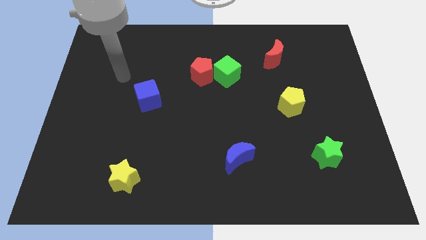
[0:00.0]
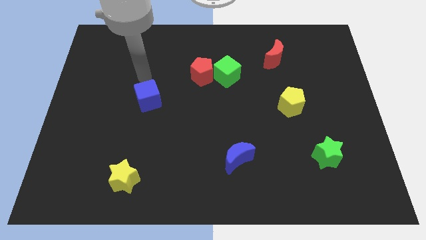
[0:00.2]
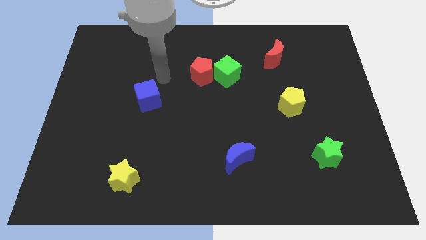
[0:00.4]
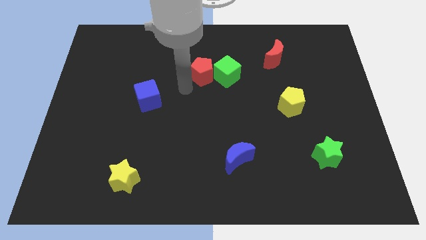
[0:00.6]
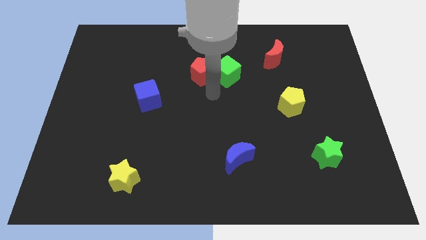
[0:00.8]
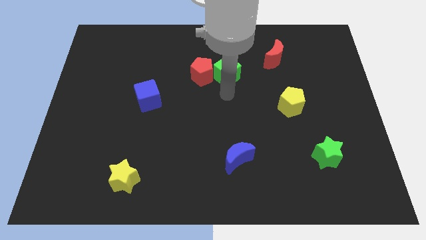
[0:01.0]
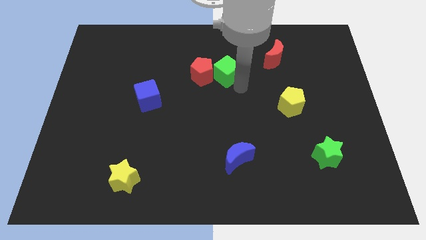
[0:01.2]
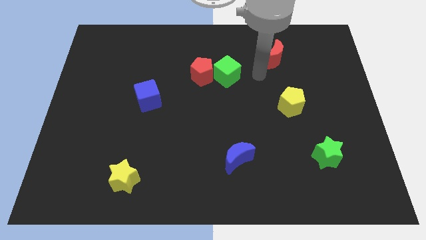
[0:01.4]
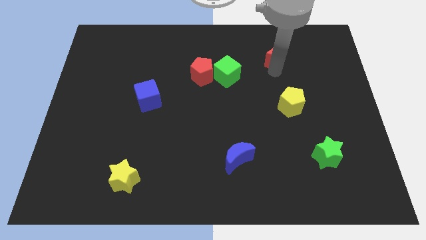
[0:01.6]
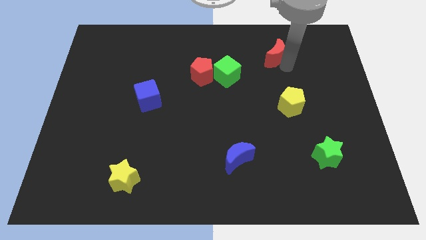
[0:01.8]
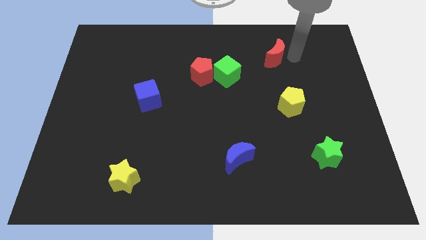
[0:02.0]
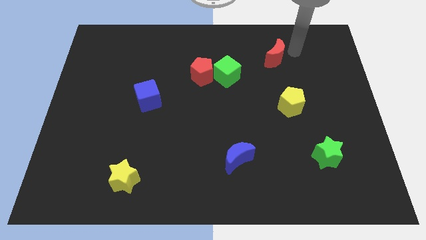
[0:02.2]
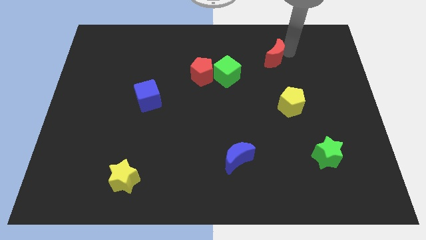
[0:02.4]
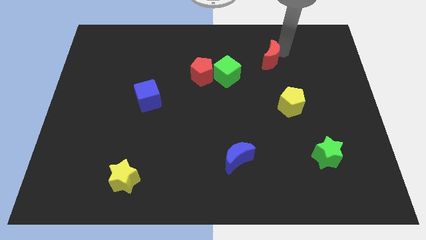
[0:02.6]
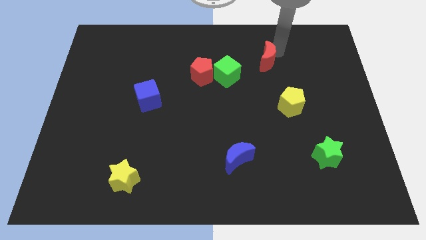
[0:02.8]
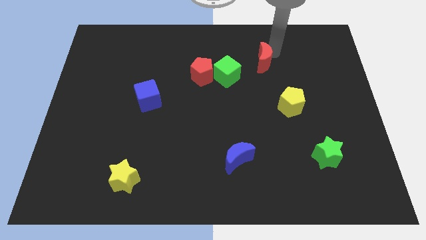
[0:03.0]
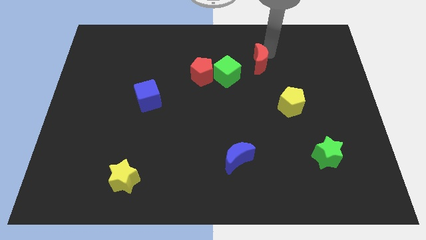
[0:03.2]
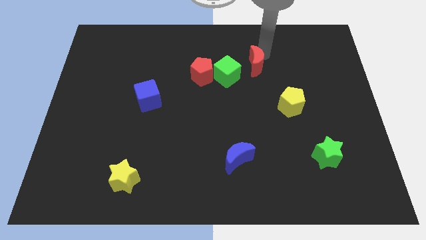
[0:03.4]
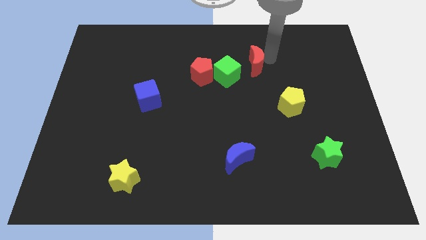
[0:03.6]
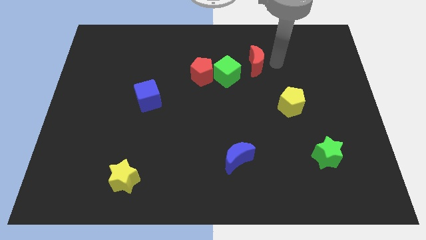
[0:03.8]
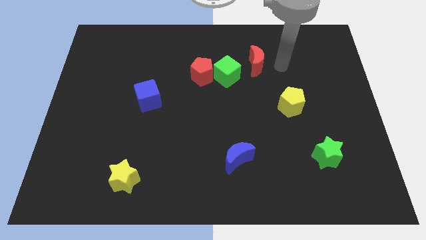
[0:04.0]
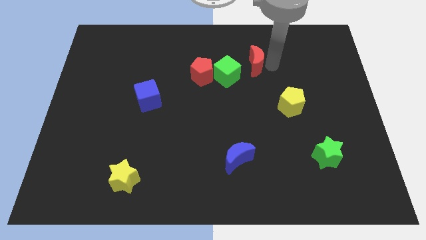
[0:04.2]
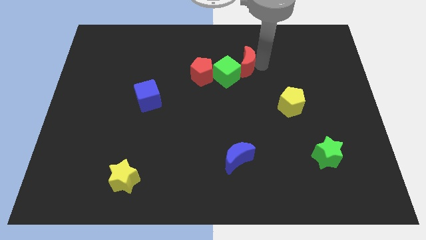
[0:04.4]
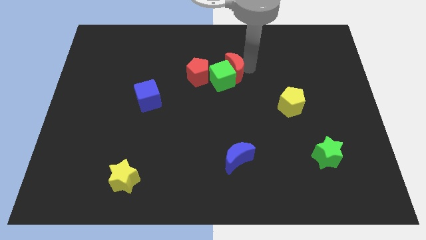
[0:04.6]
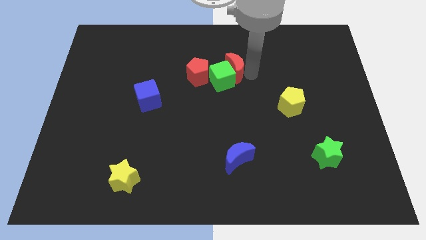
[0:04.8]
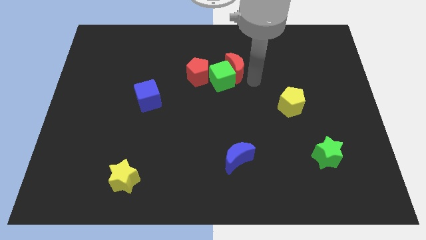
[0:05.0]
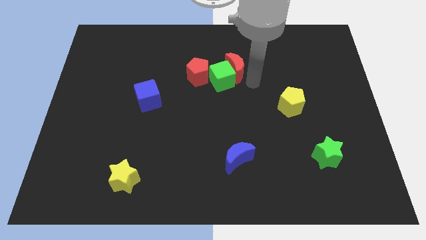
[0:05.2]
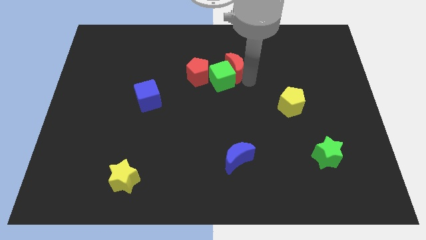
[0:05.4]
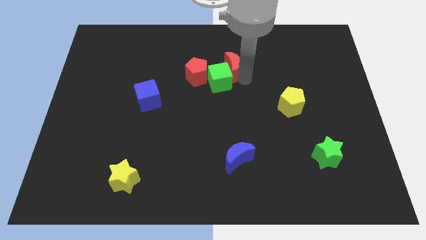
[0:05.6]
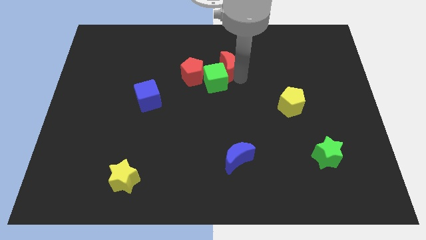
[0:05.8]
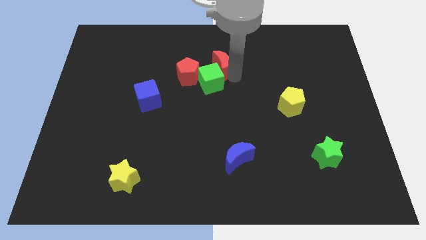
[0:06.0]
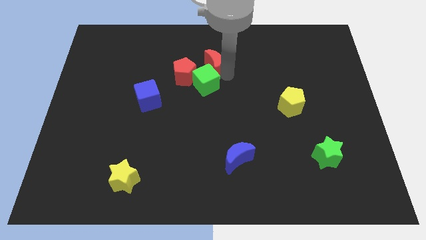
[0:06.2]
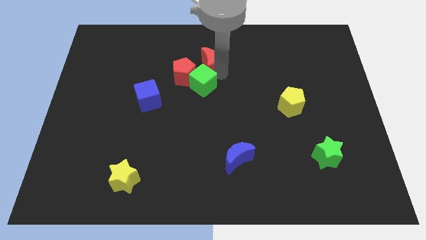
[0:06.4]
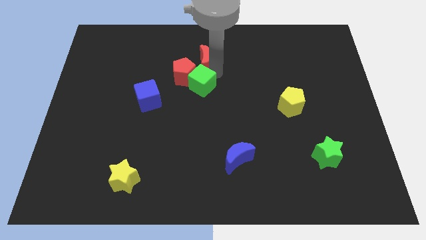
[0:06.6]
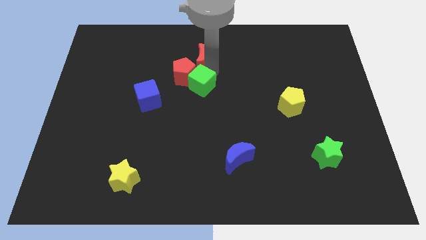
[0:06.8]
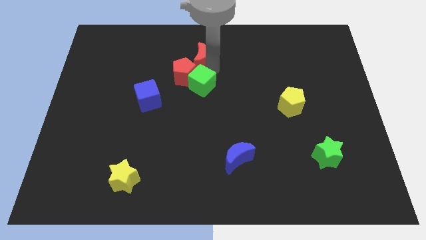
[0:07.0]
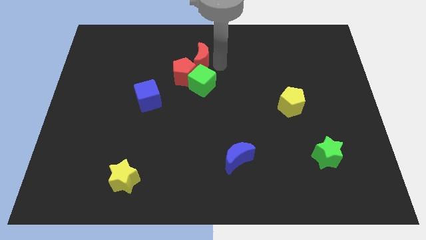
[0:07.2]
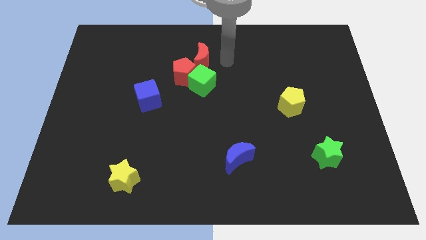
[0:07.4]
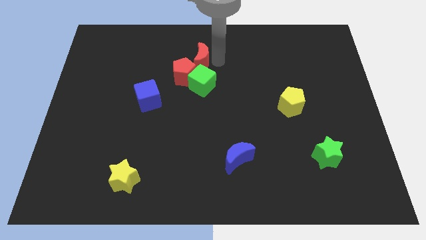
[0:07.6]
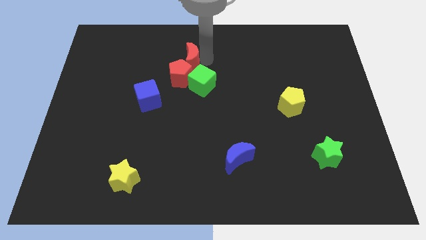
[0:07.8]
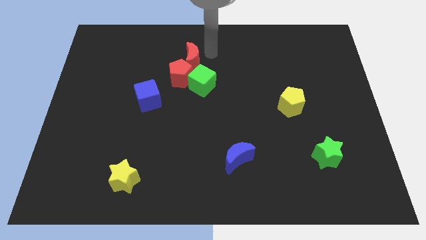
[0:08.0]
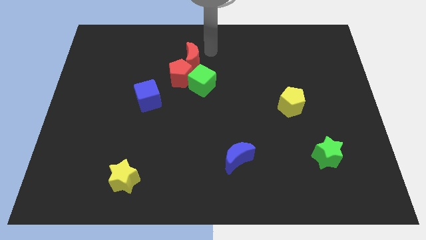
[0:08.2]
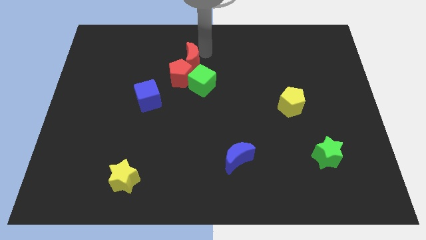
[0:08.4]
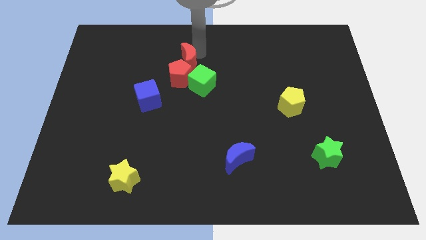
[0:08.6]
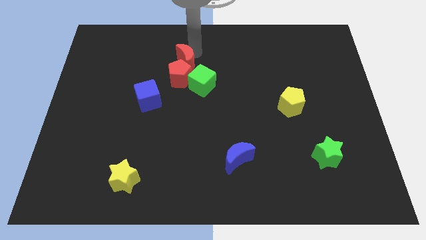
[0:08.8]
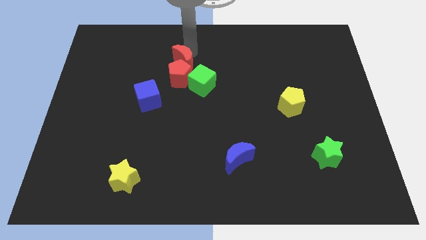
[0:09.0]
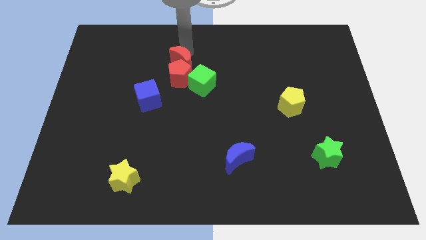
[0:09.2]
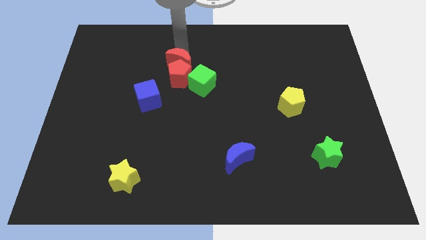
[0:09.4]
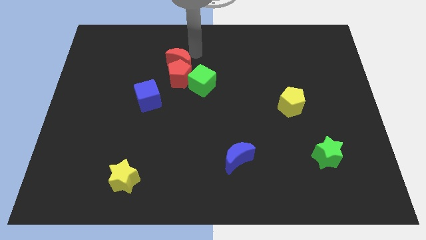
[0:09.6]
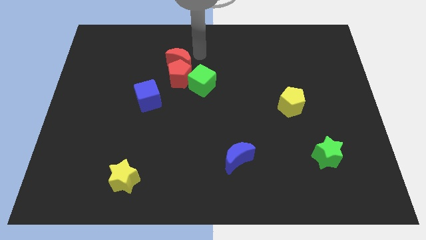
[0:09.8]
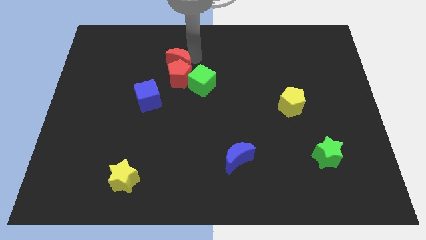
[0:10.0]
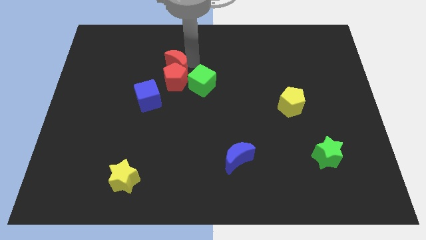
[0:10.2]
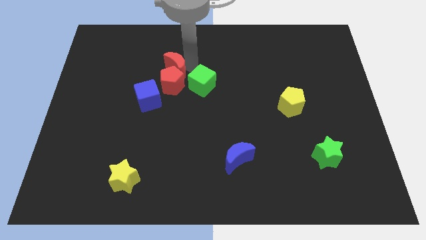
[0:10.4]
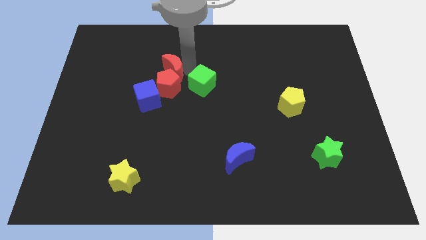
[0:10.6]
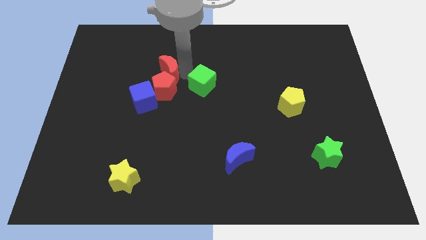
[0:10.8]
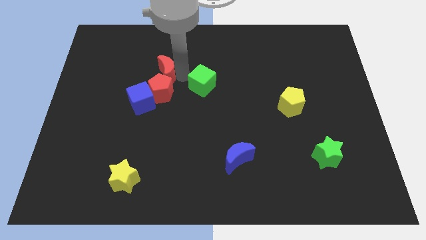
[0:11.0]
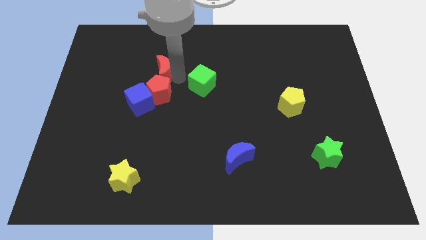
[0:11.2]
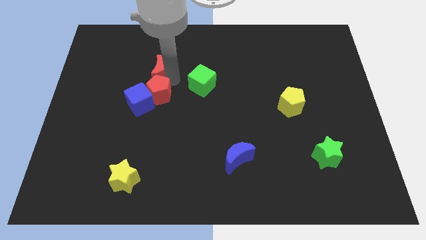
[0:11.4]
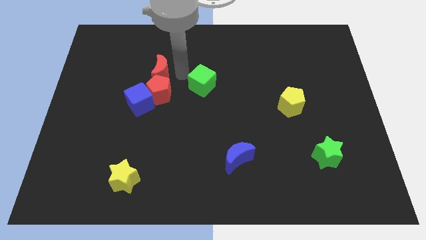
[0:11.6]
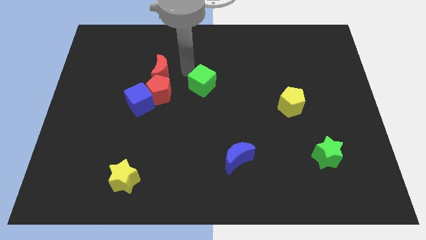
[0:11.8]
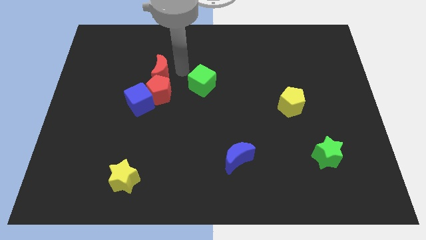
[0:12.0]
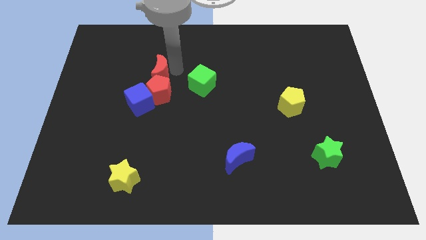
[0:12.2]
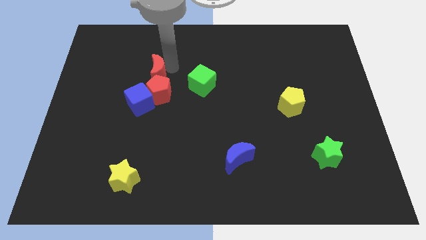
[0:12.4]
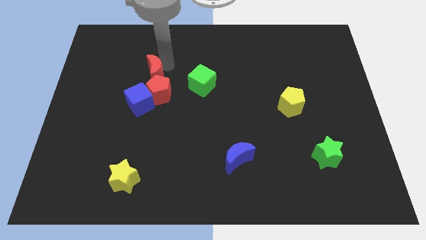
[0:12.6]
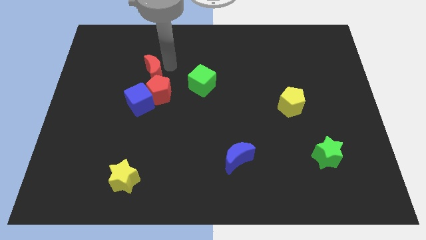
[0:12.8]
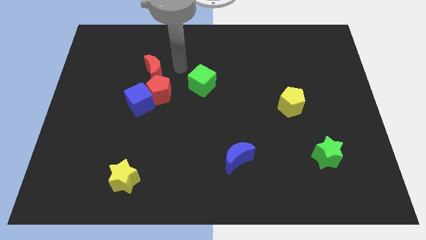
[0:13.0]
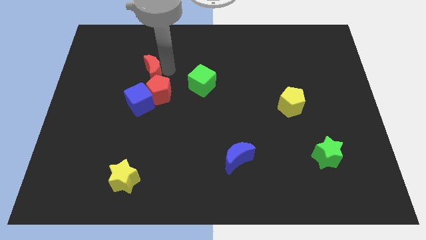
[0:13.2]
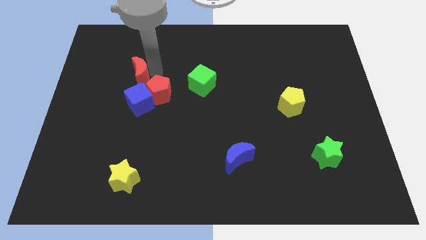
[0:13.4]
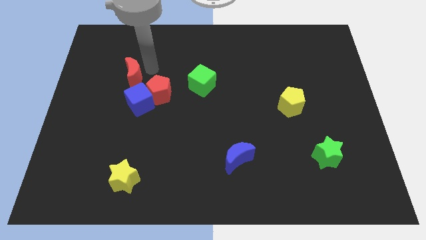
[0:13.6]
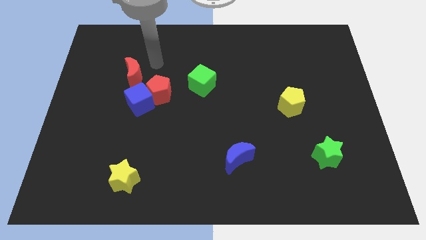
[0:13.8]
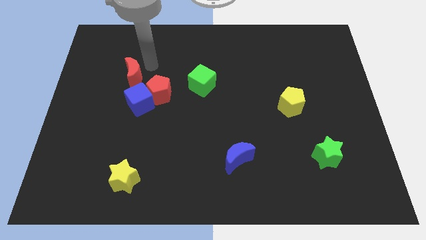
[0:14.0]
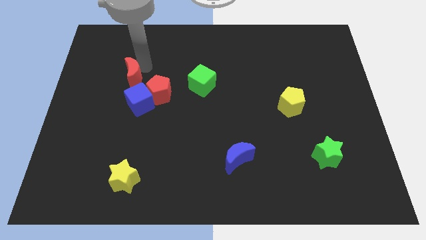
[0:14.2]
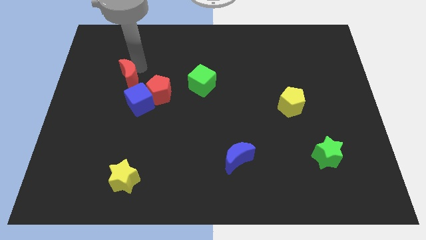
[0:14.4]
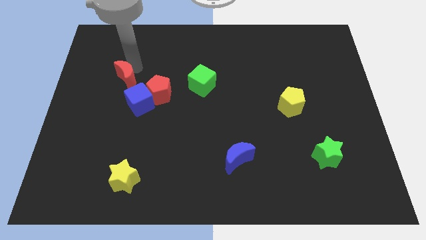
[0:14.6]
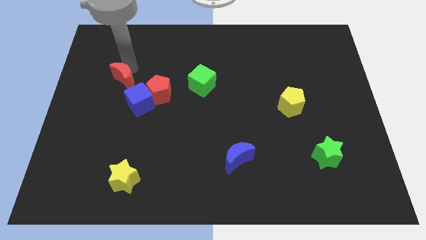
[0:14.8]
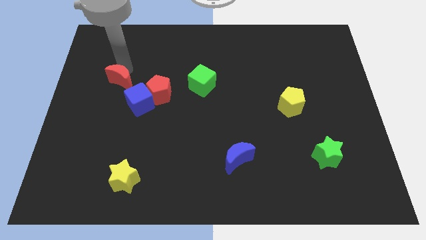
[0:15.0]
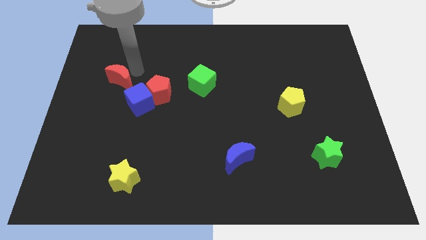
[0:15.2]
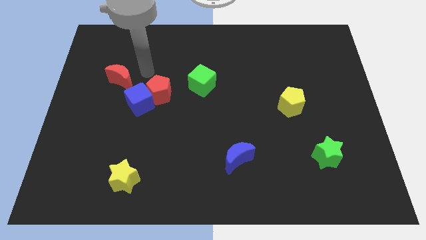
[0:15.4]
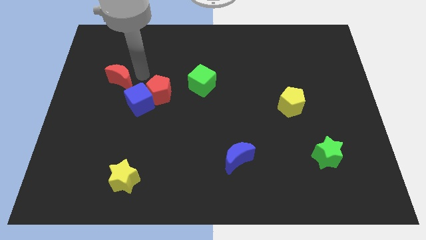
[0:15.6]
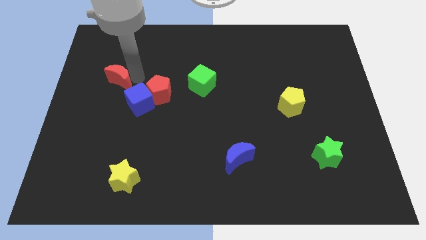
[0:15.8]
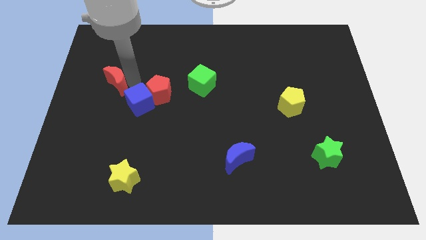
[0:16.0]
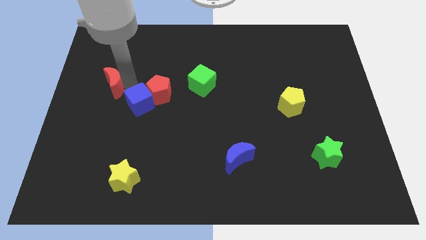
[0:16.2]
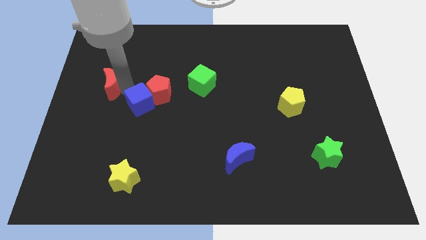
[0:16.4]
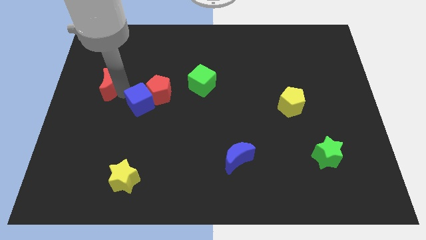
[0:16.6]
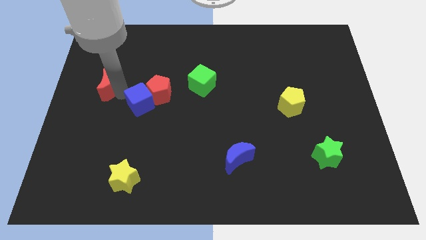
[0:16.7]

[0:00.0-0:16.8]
put the red moon to the left side of the board
